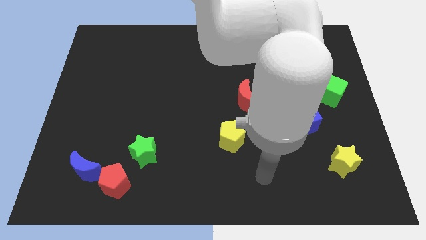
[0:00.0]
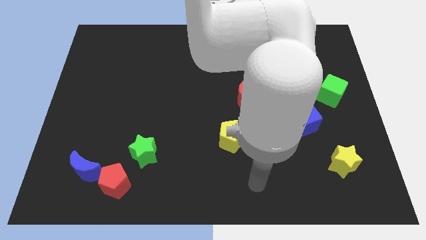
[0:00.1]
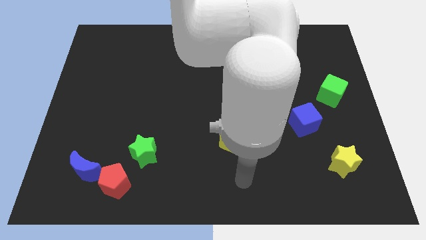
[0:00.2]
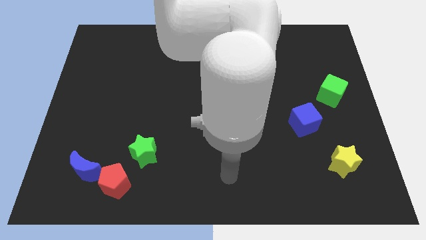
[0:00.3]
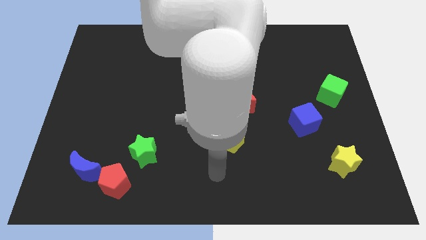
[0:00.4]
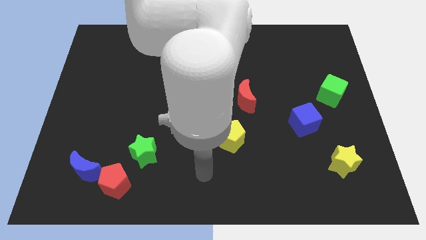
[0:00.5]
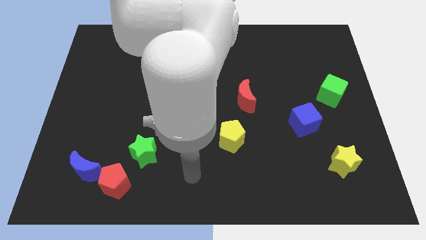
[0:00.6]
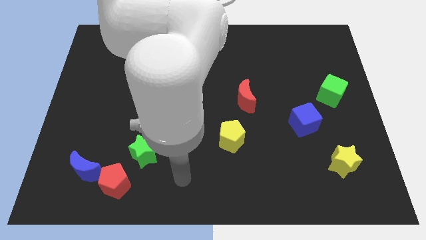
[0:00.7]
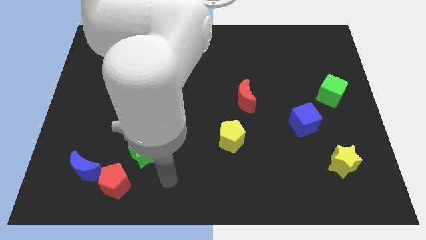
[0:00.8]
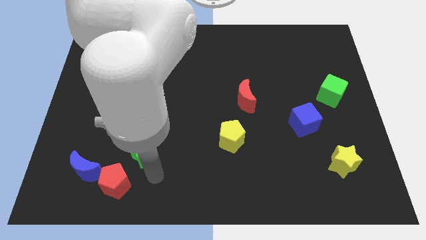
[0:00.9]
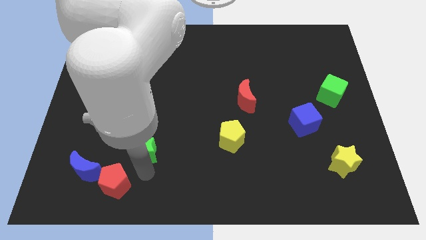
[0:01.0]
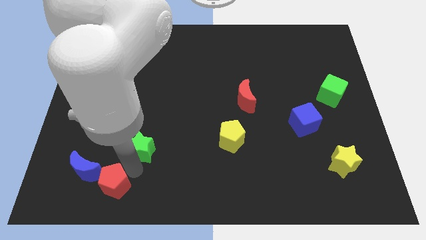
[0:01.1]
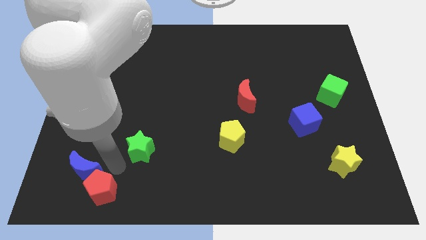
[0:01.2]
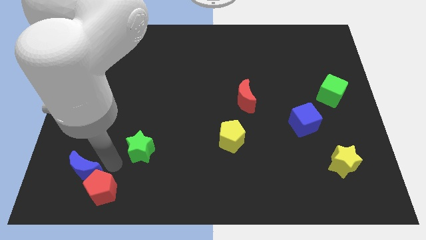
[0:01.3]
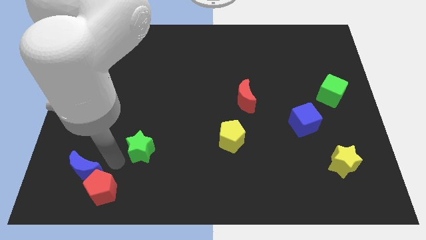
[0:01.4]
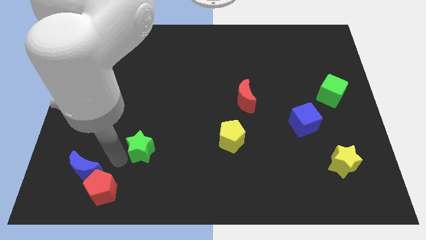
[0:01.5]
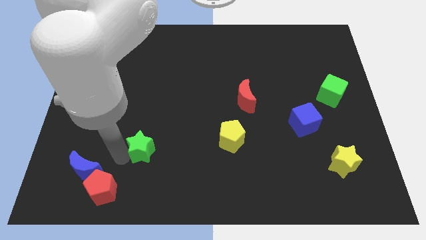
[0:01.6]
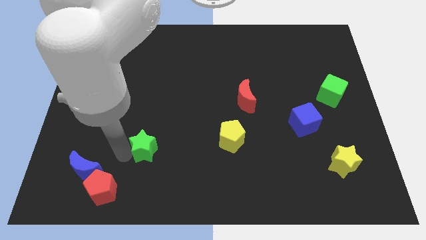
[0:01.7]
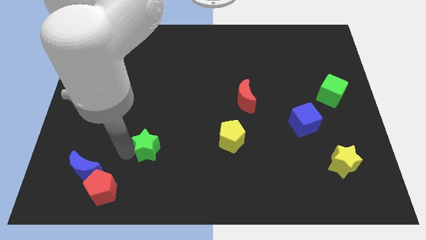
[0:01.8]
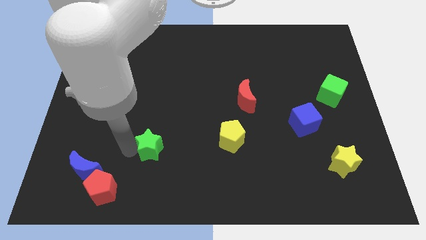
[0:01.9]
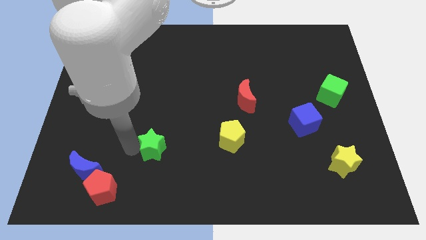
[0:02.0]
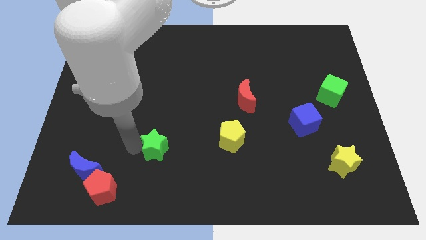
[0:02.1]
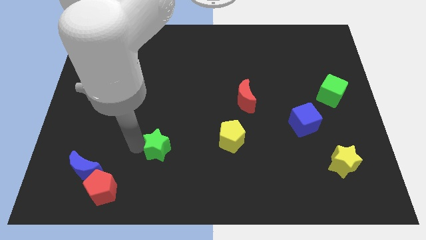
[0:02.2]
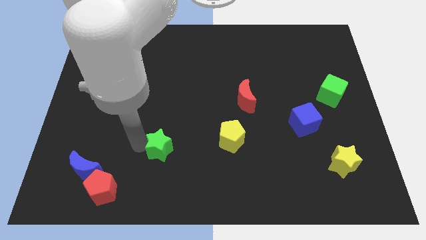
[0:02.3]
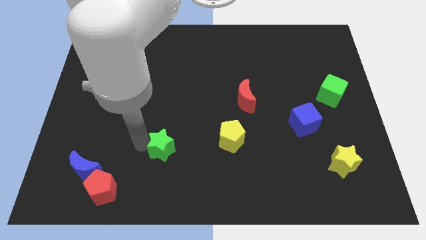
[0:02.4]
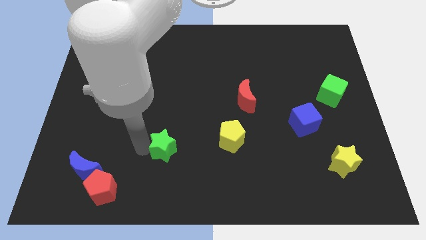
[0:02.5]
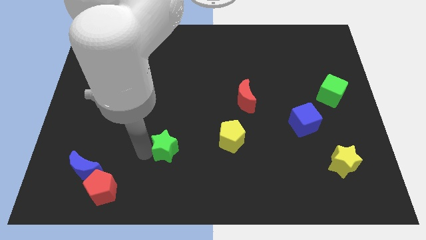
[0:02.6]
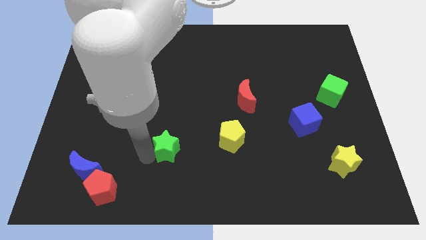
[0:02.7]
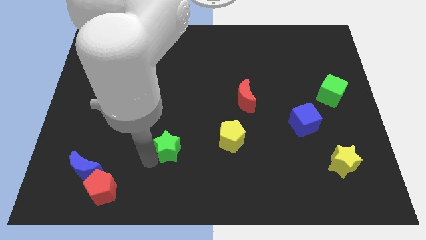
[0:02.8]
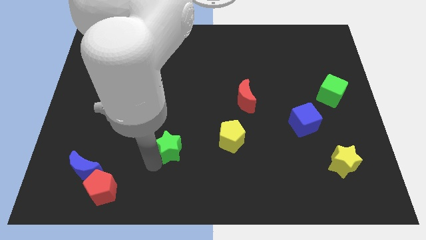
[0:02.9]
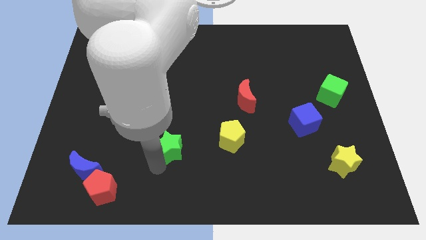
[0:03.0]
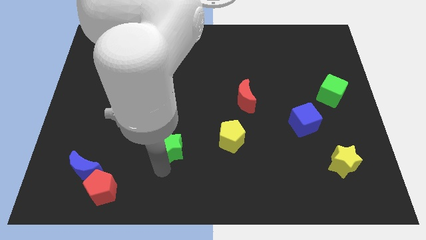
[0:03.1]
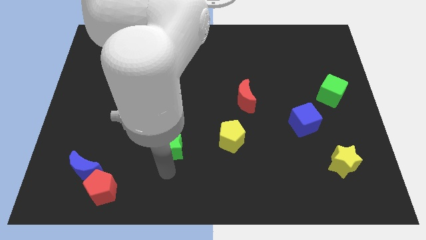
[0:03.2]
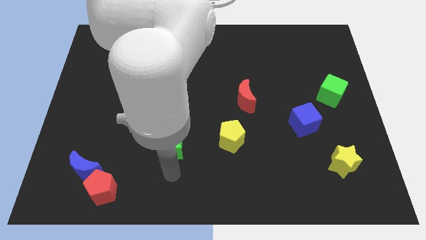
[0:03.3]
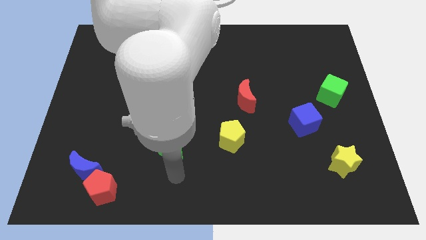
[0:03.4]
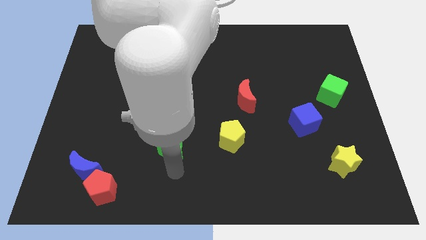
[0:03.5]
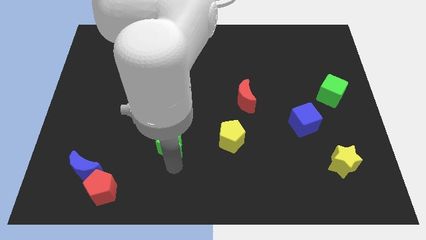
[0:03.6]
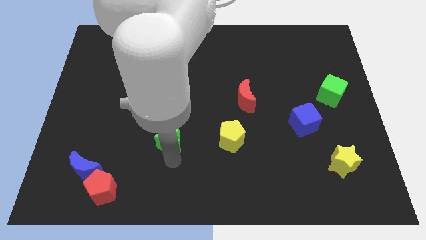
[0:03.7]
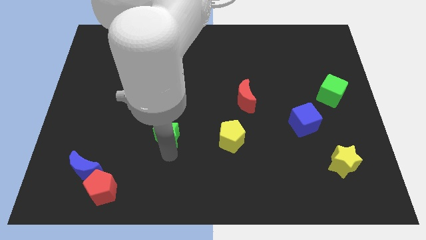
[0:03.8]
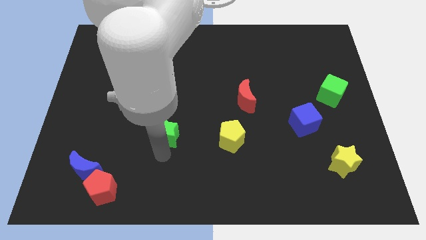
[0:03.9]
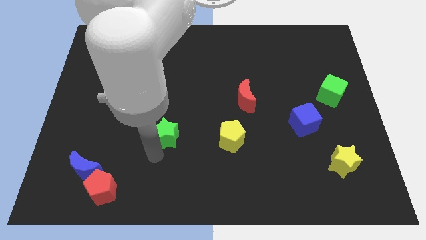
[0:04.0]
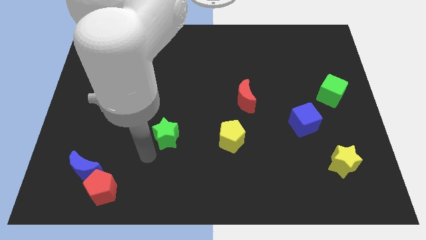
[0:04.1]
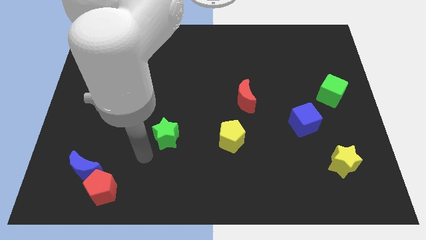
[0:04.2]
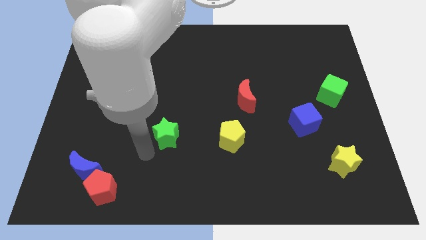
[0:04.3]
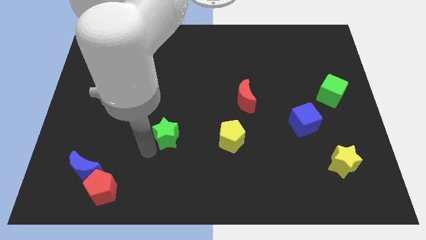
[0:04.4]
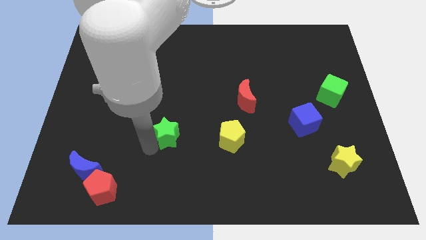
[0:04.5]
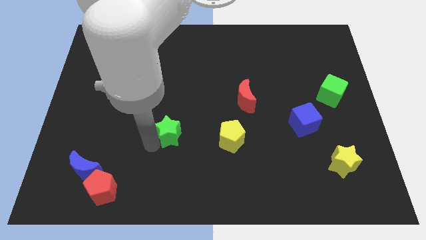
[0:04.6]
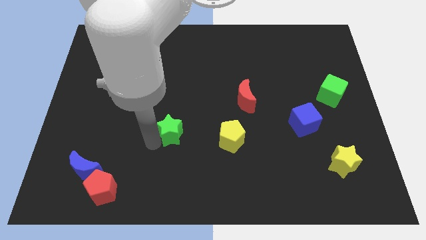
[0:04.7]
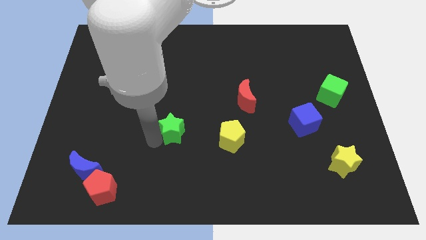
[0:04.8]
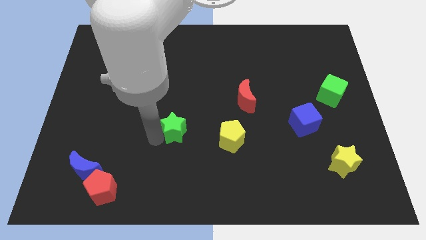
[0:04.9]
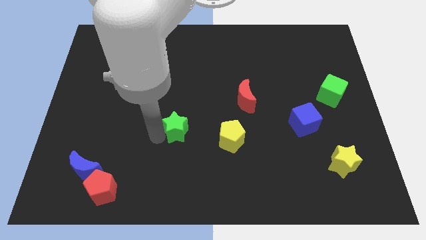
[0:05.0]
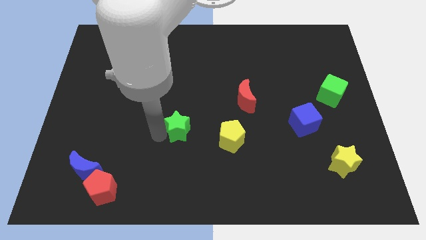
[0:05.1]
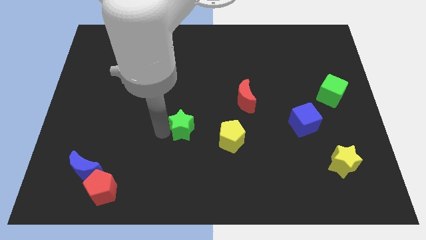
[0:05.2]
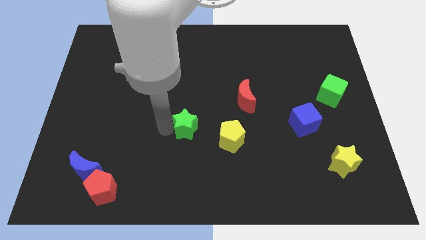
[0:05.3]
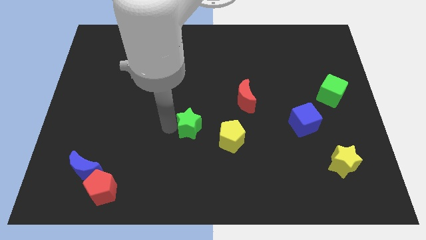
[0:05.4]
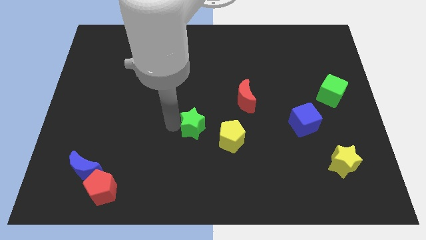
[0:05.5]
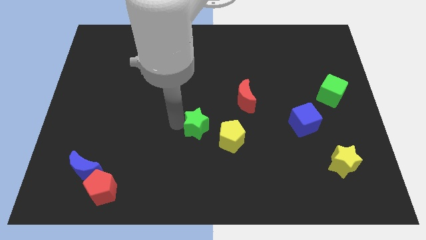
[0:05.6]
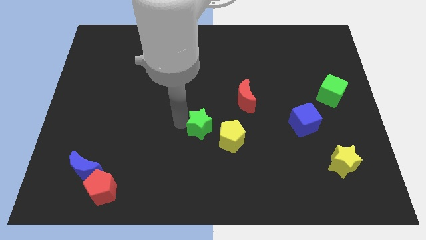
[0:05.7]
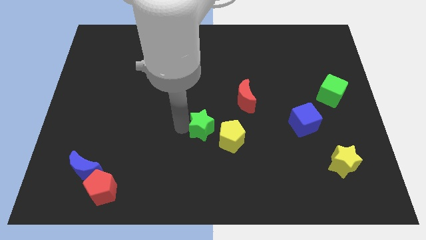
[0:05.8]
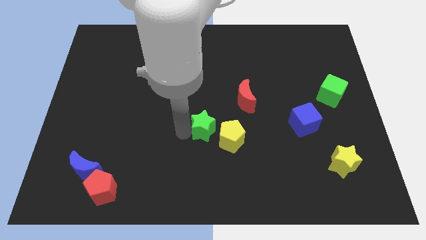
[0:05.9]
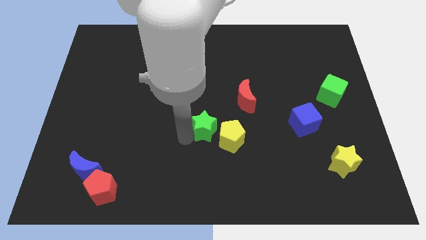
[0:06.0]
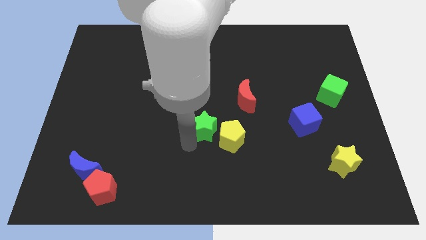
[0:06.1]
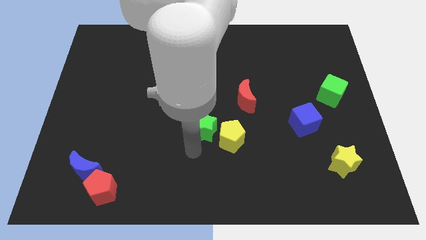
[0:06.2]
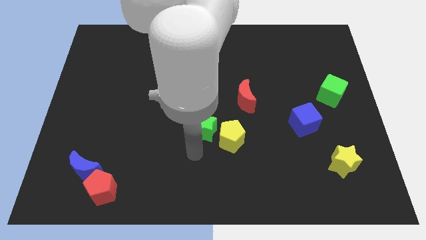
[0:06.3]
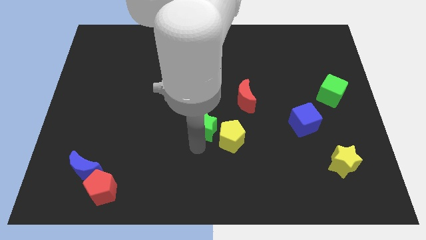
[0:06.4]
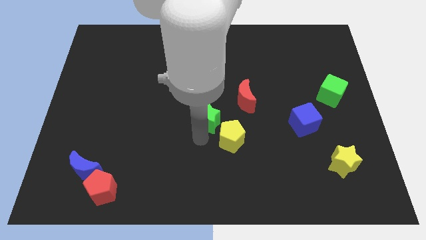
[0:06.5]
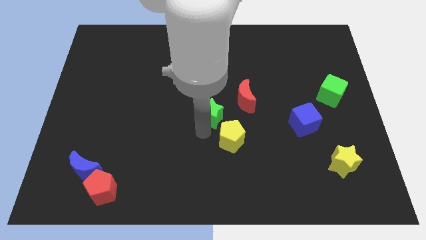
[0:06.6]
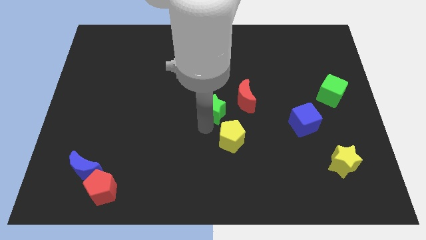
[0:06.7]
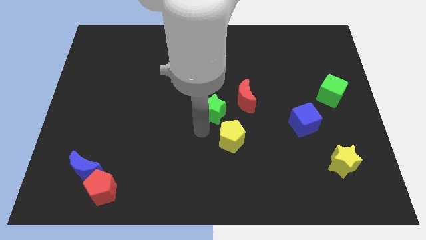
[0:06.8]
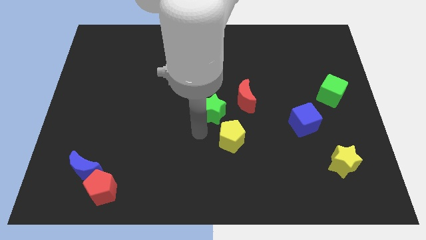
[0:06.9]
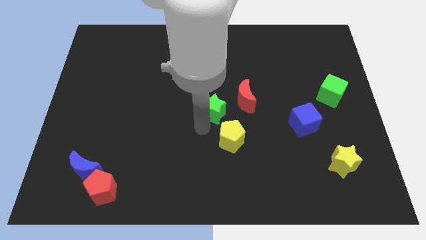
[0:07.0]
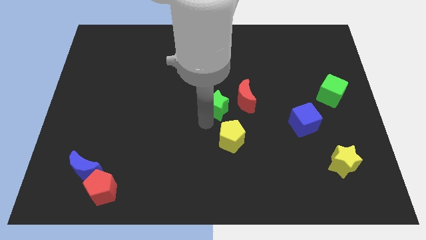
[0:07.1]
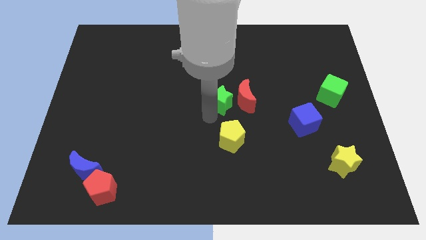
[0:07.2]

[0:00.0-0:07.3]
push the green star upwards and right diagonally

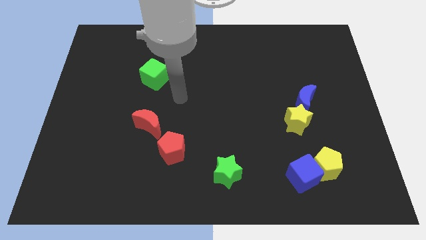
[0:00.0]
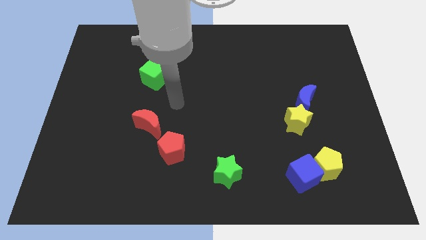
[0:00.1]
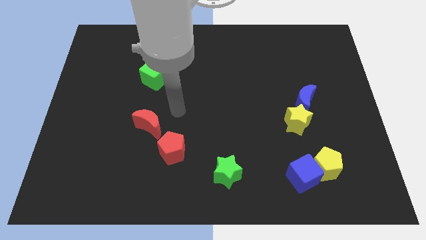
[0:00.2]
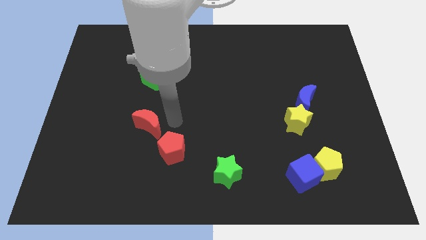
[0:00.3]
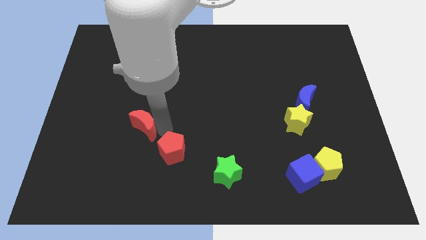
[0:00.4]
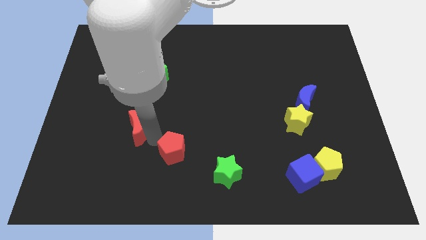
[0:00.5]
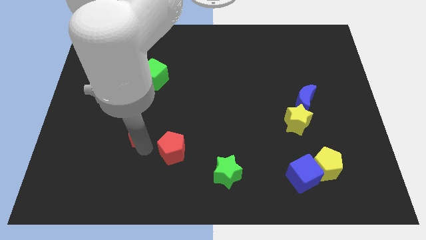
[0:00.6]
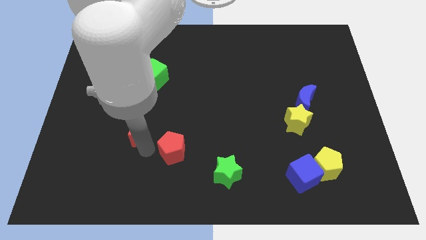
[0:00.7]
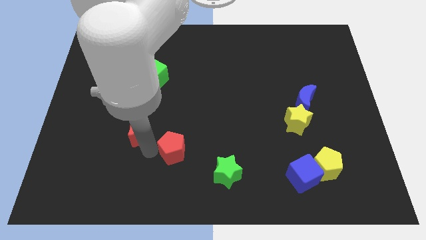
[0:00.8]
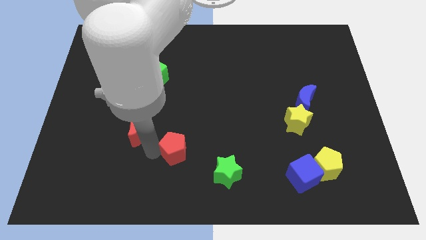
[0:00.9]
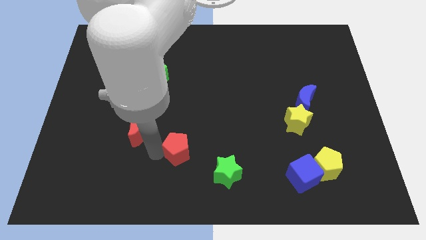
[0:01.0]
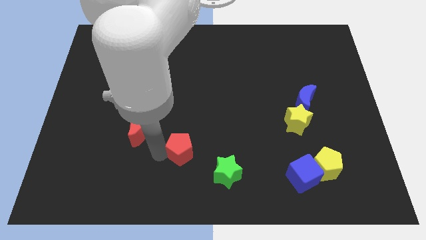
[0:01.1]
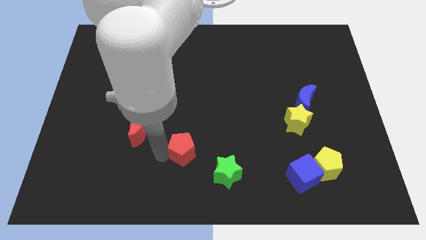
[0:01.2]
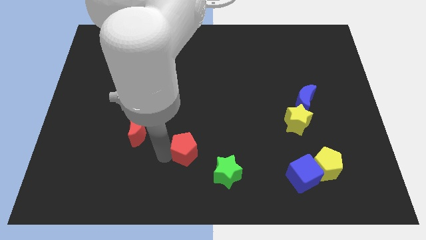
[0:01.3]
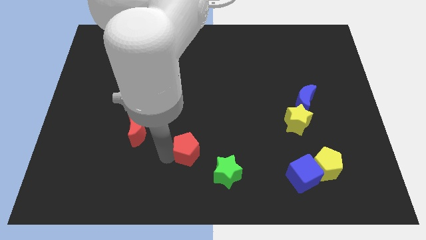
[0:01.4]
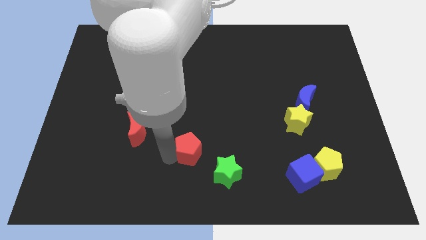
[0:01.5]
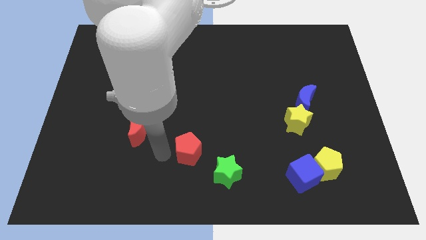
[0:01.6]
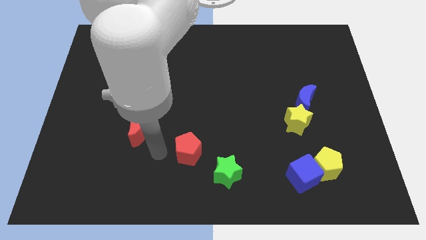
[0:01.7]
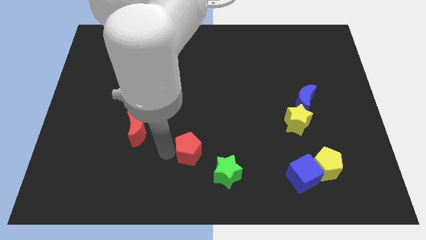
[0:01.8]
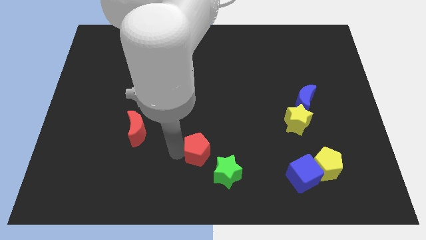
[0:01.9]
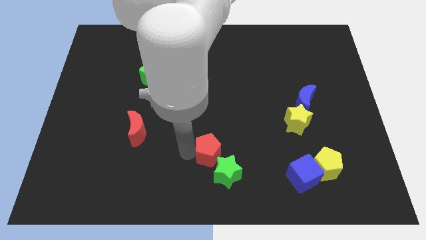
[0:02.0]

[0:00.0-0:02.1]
slightly push the red pentagon to the right
